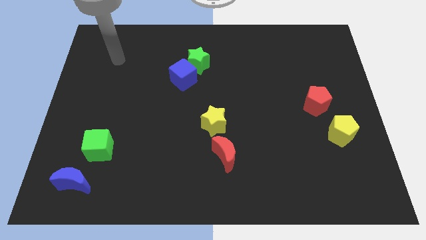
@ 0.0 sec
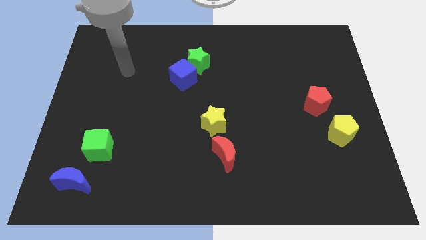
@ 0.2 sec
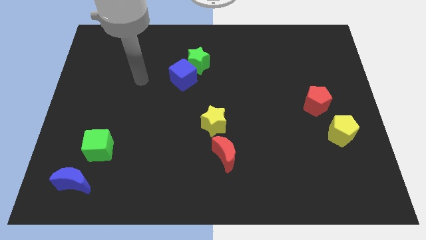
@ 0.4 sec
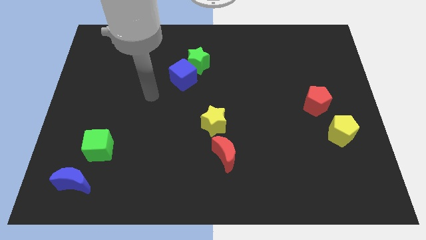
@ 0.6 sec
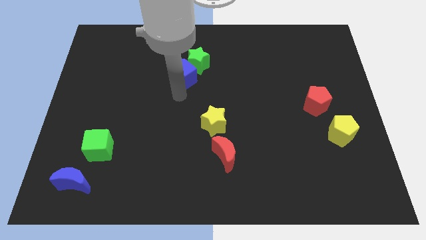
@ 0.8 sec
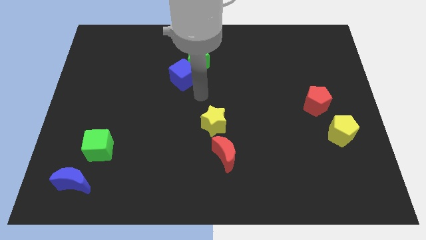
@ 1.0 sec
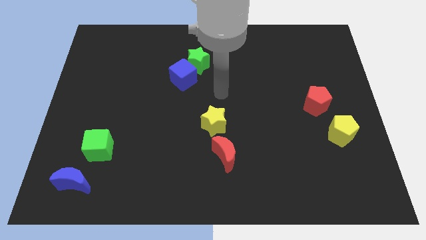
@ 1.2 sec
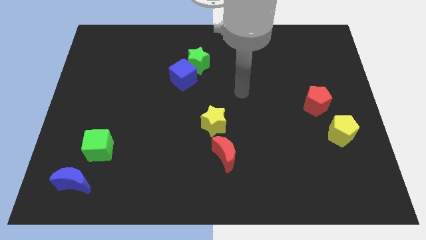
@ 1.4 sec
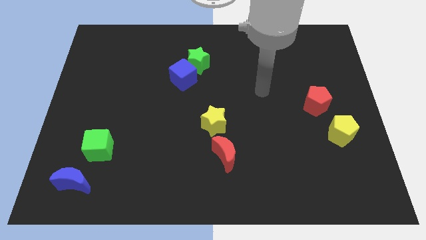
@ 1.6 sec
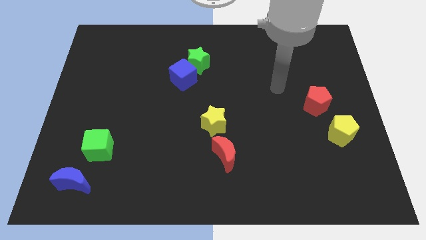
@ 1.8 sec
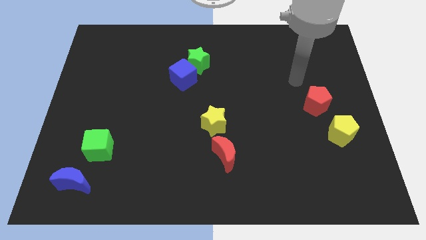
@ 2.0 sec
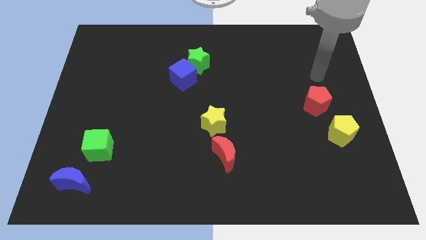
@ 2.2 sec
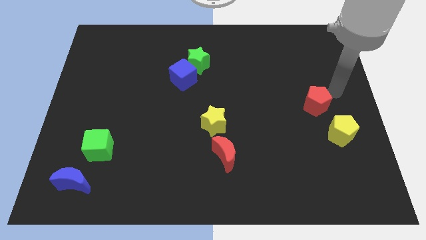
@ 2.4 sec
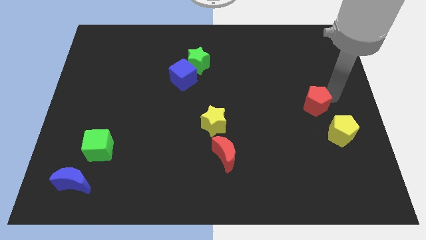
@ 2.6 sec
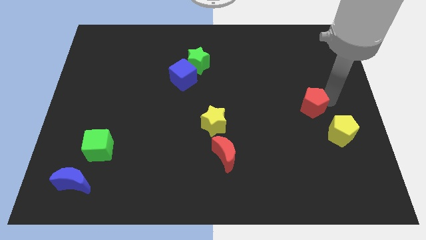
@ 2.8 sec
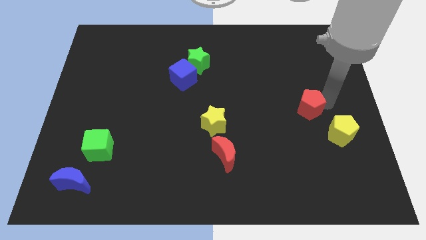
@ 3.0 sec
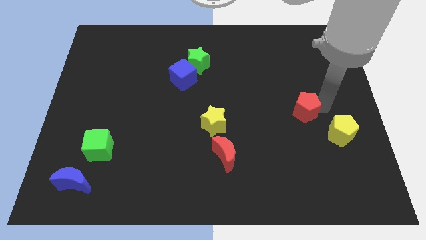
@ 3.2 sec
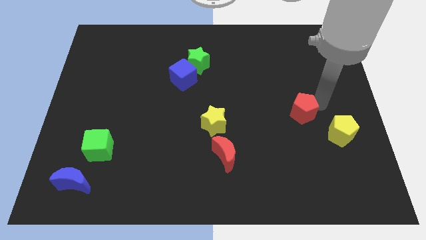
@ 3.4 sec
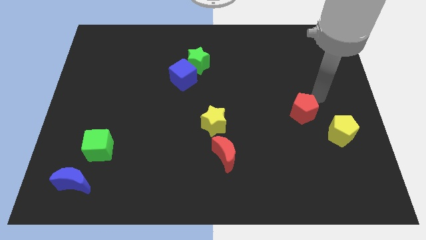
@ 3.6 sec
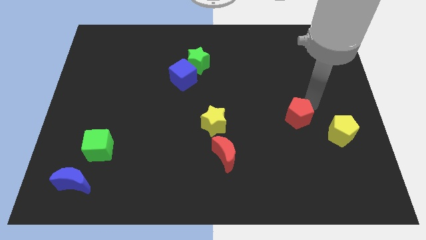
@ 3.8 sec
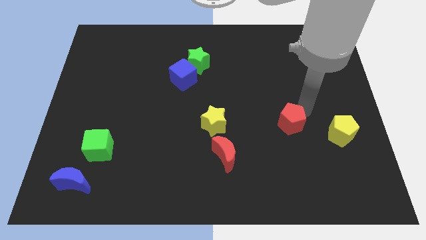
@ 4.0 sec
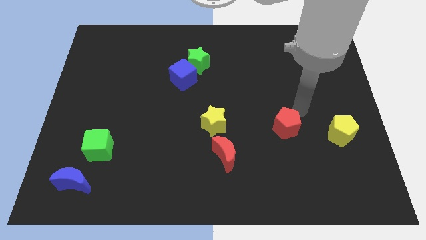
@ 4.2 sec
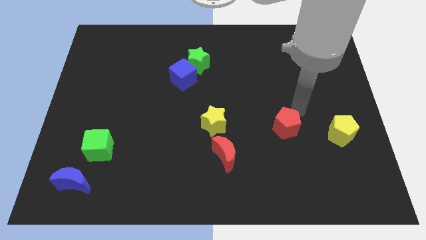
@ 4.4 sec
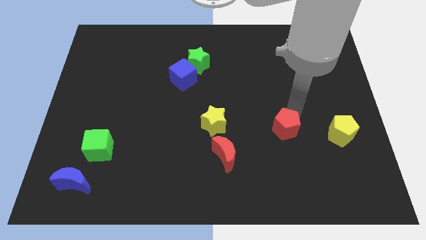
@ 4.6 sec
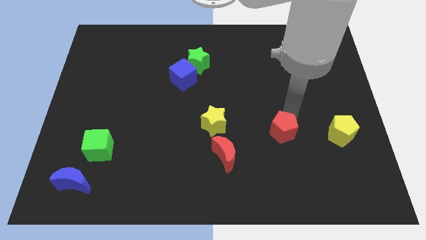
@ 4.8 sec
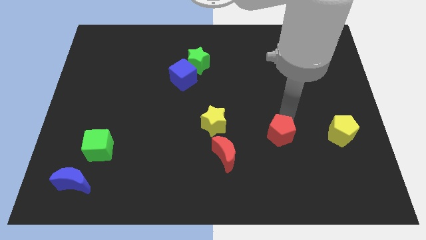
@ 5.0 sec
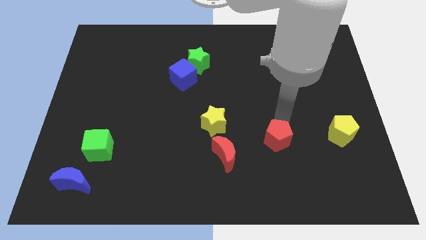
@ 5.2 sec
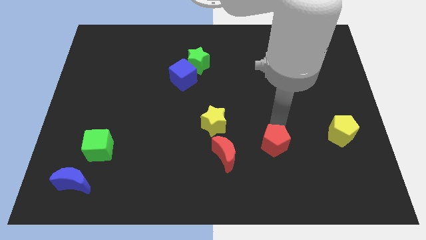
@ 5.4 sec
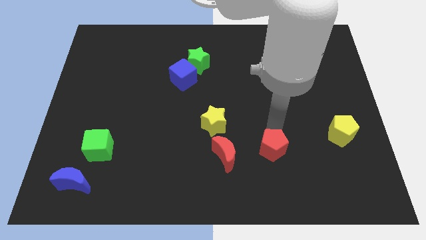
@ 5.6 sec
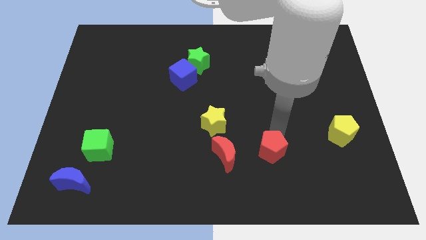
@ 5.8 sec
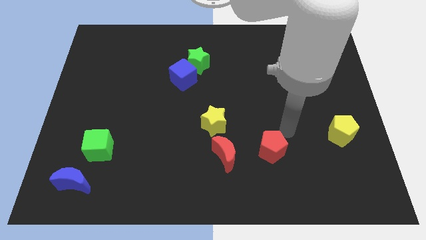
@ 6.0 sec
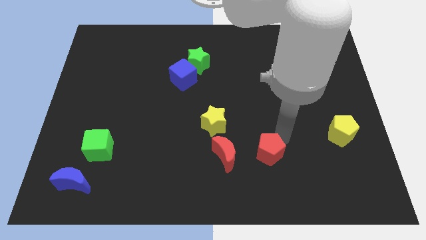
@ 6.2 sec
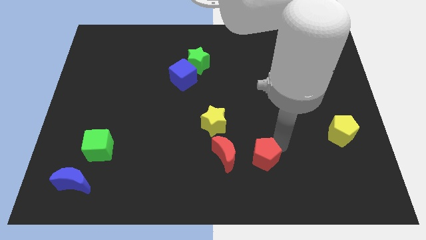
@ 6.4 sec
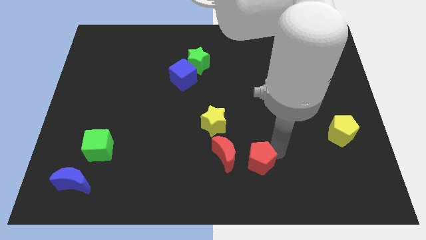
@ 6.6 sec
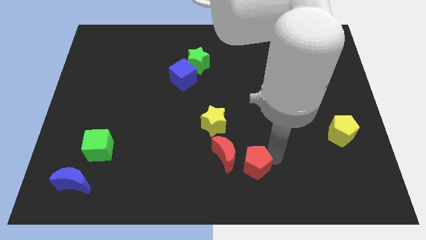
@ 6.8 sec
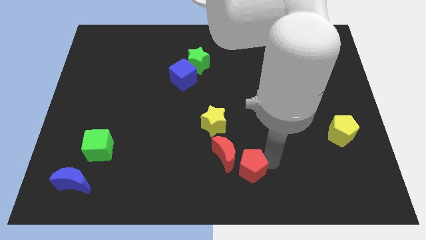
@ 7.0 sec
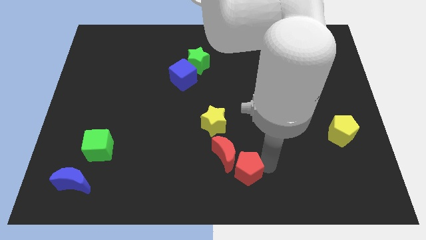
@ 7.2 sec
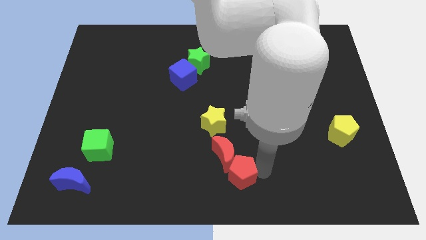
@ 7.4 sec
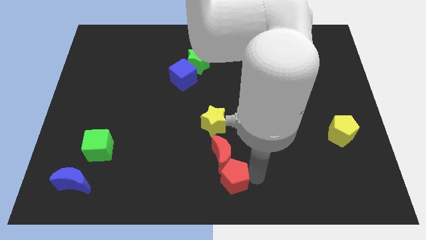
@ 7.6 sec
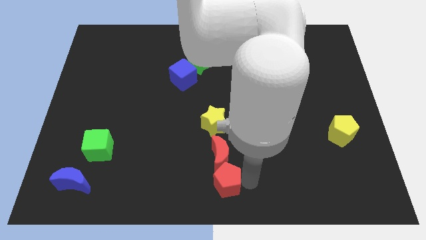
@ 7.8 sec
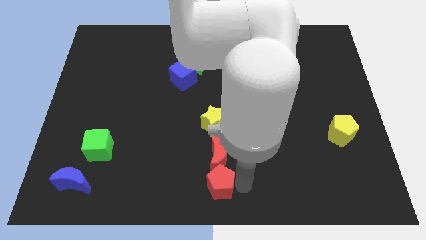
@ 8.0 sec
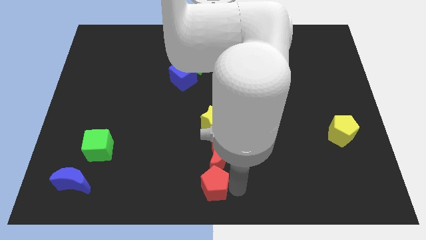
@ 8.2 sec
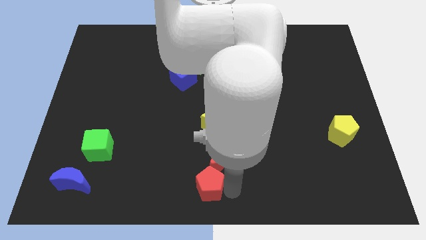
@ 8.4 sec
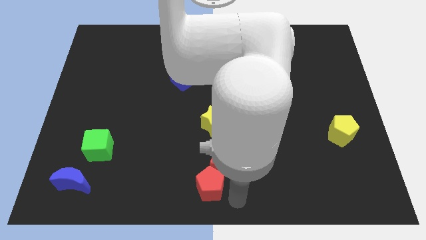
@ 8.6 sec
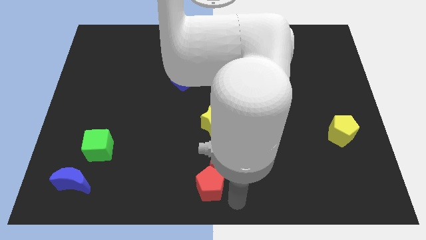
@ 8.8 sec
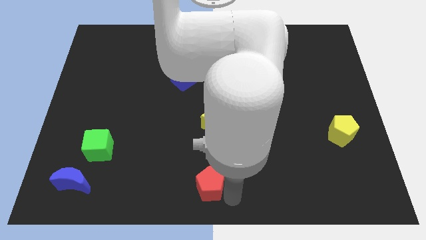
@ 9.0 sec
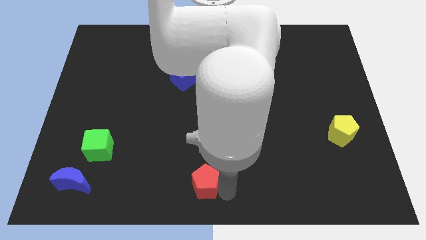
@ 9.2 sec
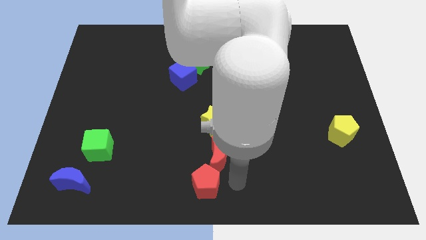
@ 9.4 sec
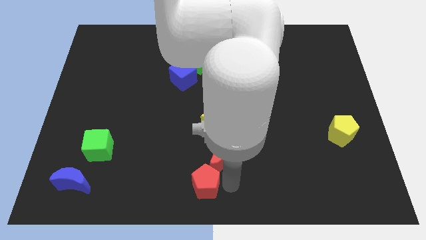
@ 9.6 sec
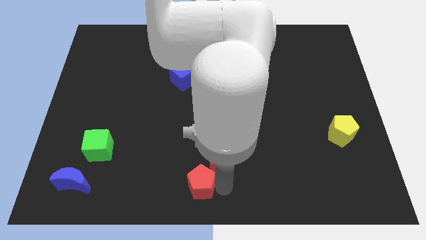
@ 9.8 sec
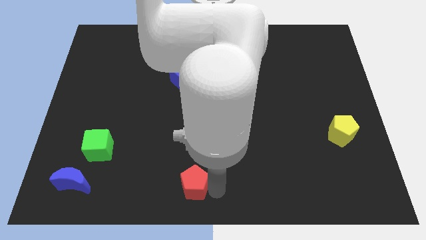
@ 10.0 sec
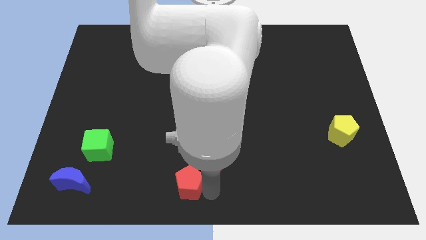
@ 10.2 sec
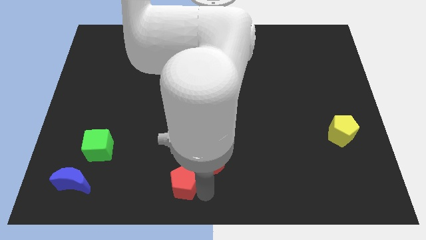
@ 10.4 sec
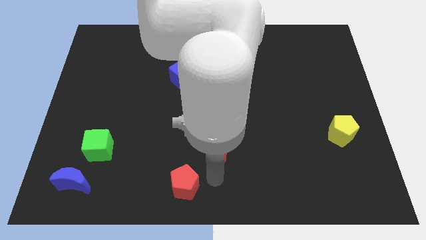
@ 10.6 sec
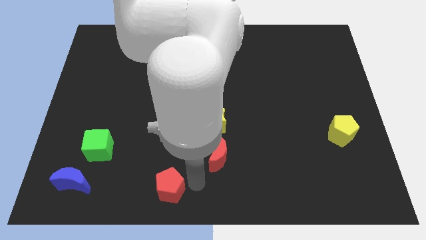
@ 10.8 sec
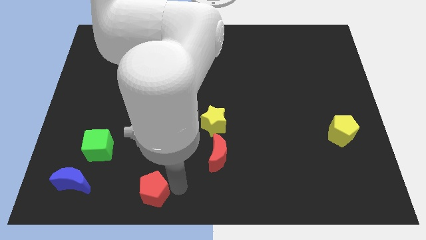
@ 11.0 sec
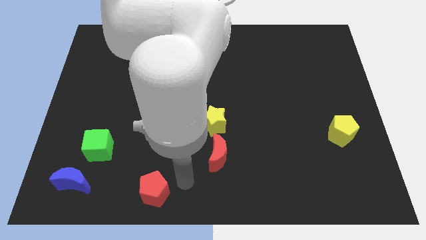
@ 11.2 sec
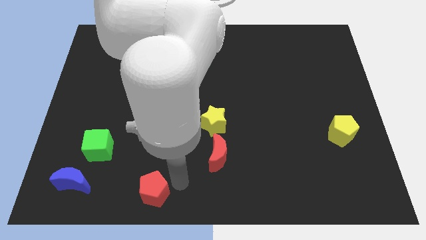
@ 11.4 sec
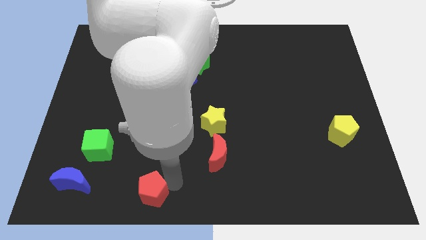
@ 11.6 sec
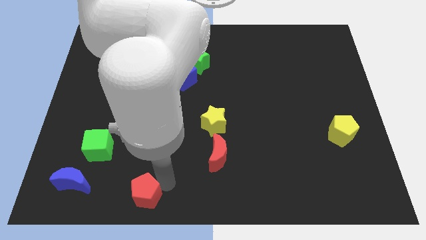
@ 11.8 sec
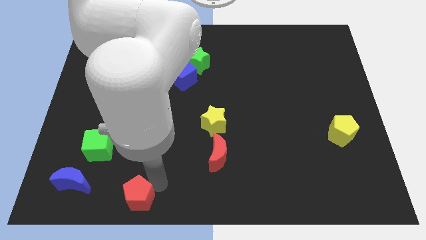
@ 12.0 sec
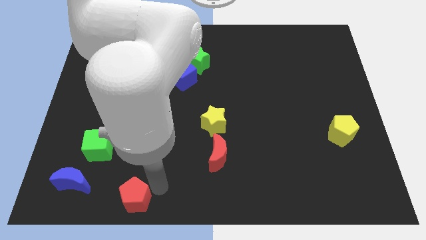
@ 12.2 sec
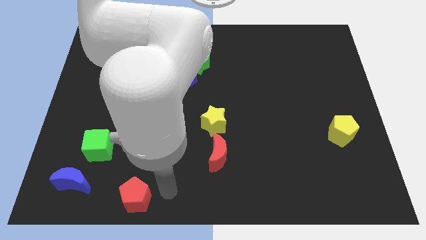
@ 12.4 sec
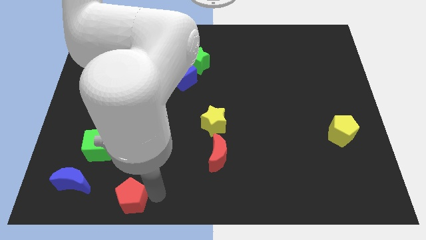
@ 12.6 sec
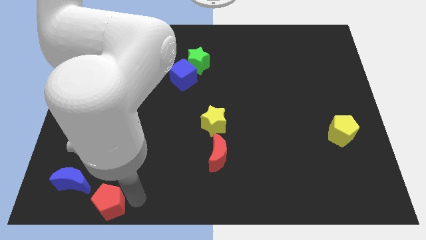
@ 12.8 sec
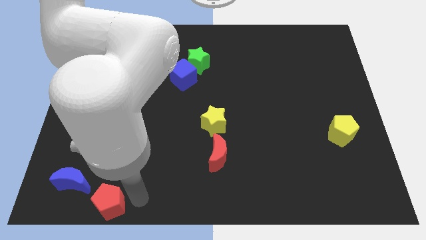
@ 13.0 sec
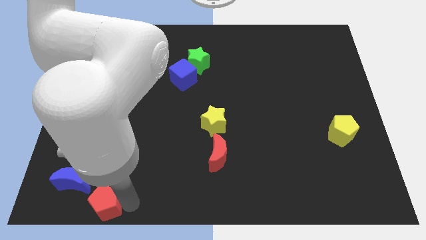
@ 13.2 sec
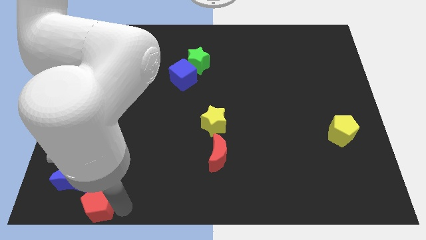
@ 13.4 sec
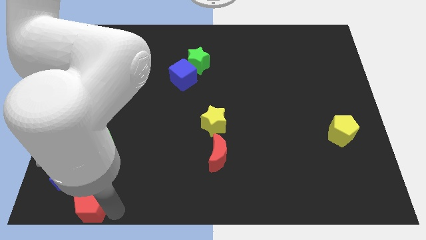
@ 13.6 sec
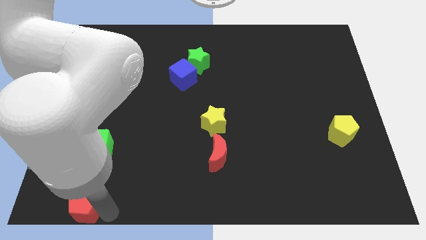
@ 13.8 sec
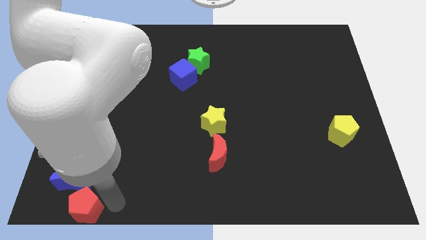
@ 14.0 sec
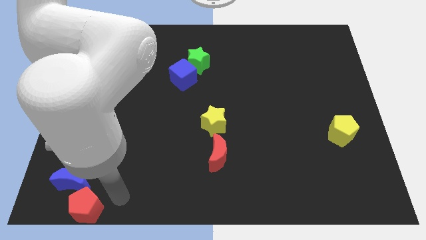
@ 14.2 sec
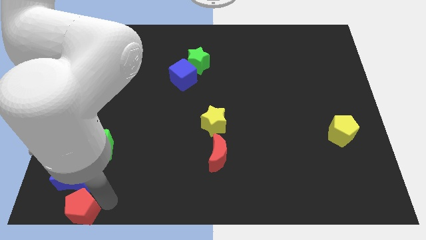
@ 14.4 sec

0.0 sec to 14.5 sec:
slide the red pentagon to the bottom left
